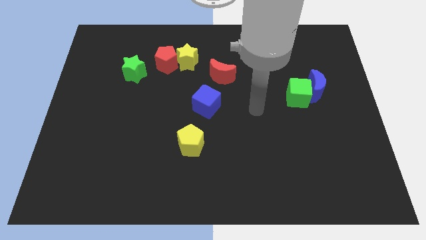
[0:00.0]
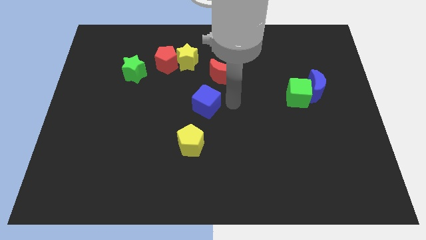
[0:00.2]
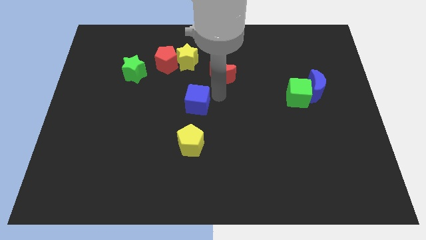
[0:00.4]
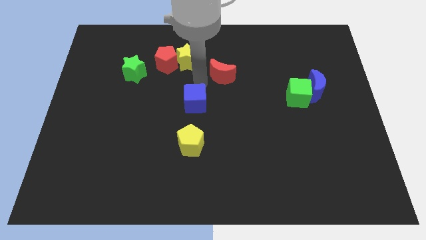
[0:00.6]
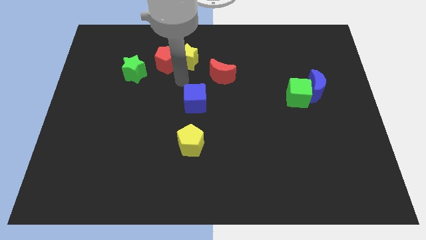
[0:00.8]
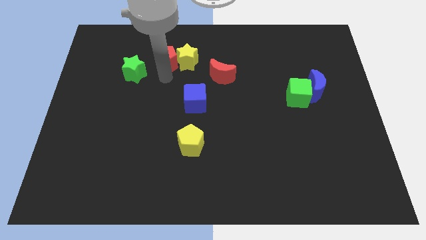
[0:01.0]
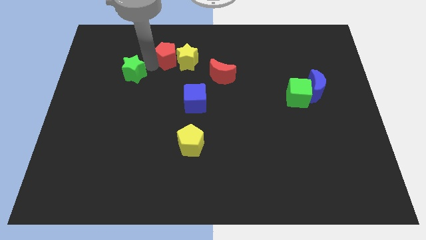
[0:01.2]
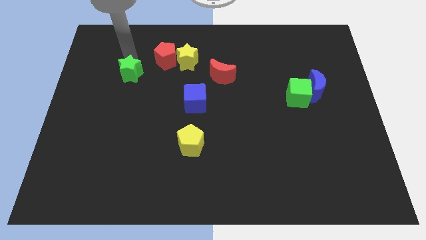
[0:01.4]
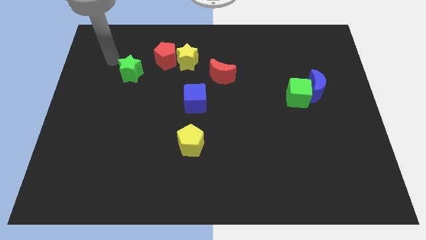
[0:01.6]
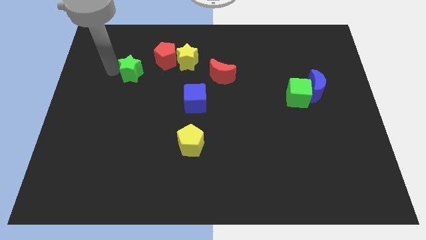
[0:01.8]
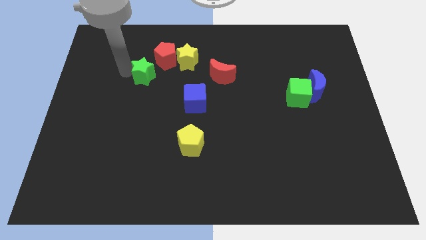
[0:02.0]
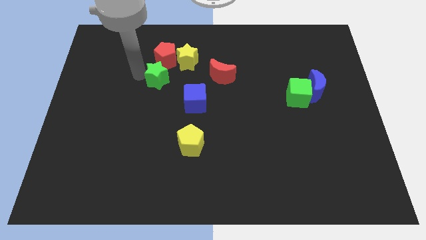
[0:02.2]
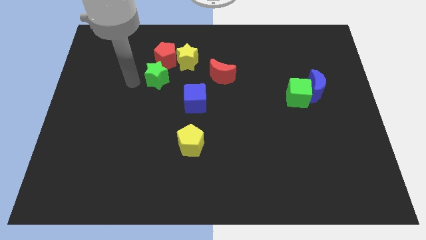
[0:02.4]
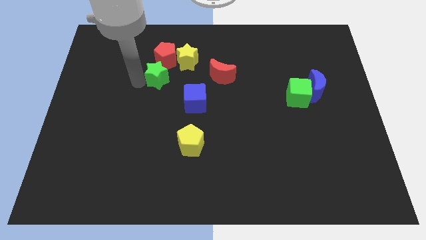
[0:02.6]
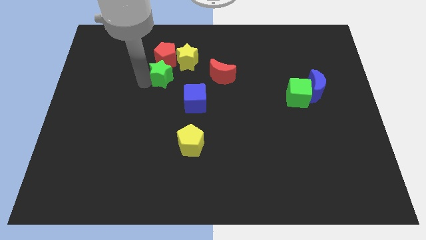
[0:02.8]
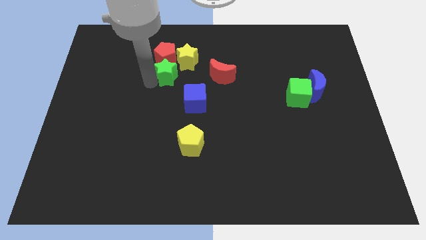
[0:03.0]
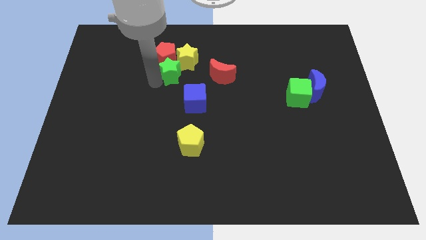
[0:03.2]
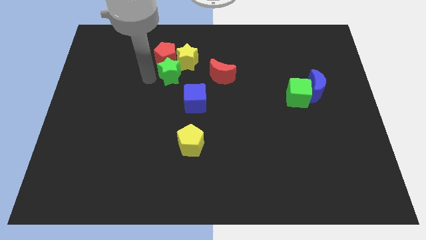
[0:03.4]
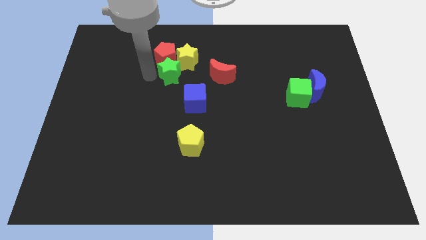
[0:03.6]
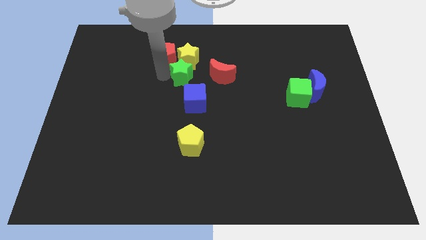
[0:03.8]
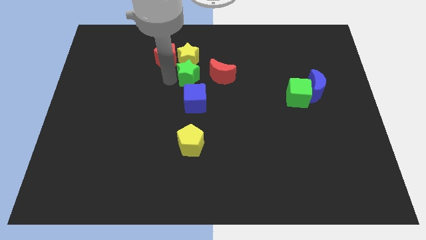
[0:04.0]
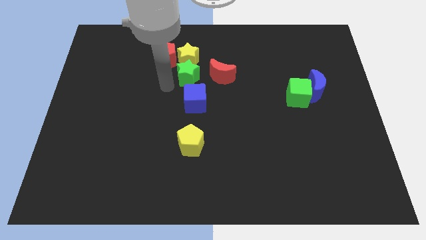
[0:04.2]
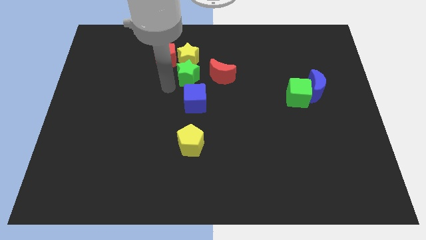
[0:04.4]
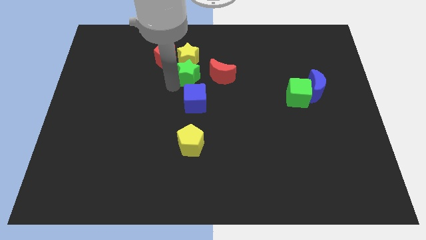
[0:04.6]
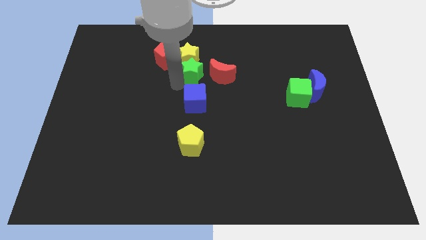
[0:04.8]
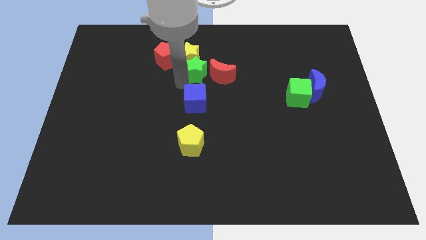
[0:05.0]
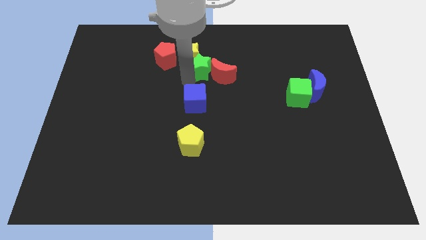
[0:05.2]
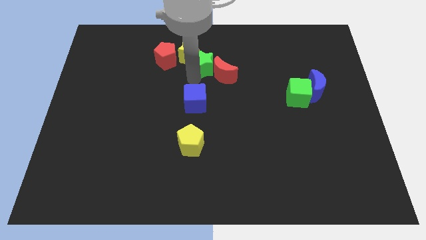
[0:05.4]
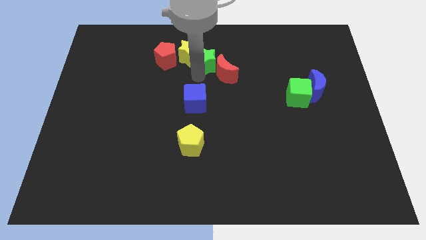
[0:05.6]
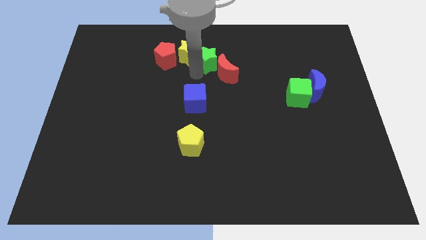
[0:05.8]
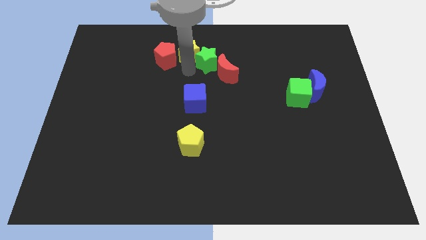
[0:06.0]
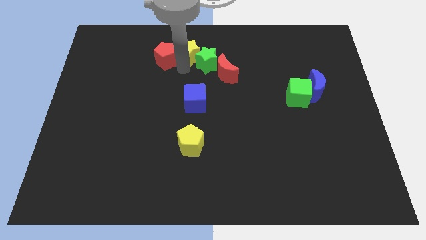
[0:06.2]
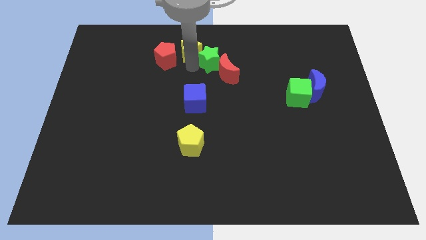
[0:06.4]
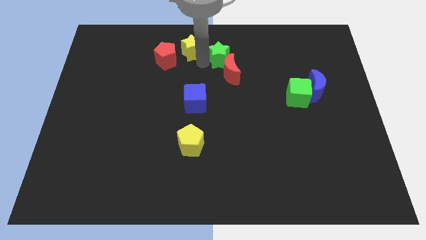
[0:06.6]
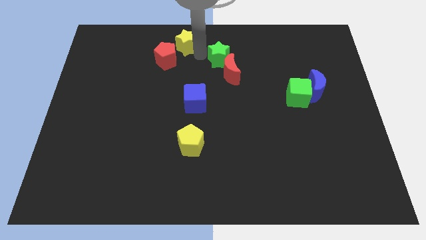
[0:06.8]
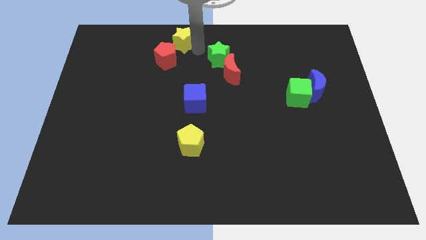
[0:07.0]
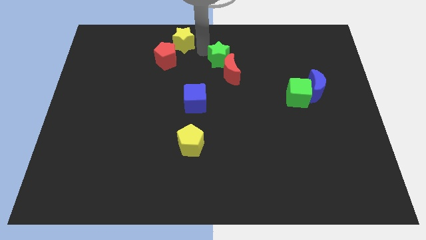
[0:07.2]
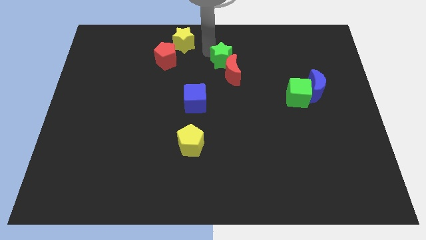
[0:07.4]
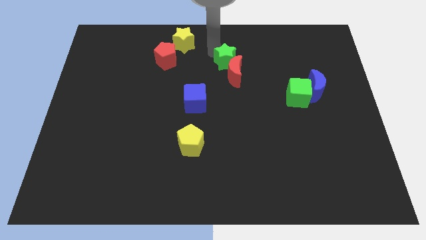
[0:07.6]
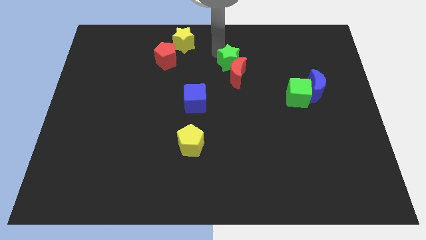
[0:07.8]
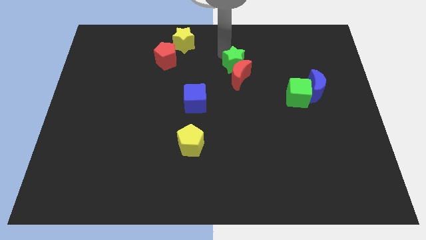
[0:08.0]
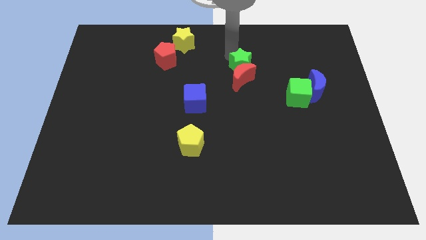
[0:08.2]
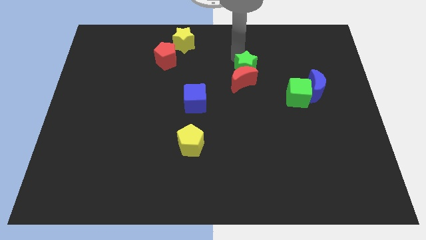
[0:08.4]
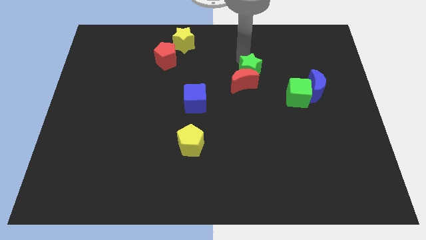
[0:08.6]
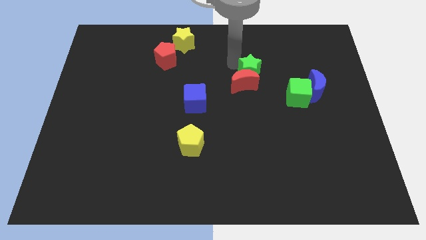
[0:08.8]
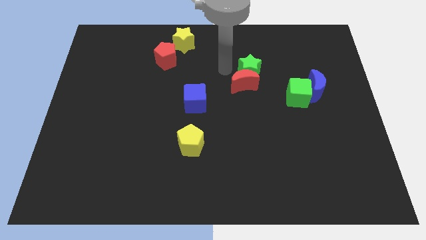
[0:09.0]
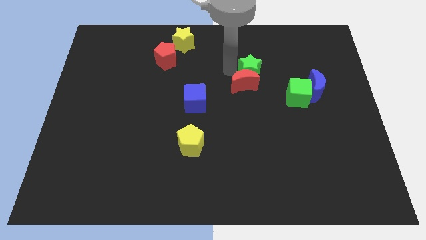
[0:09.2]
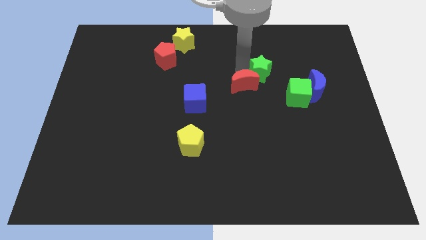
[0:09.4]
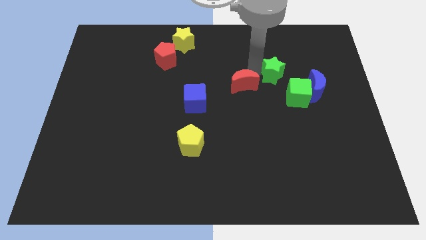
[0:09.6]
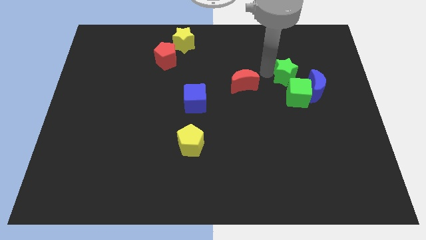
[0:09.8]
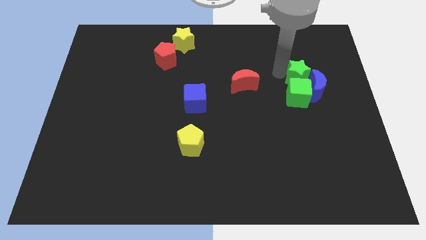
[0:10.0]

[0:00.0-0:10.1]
put the green star to the blue moon
